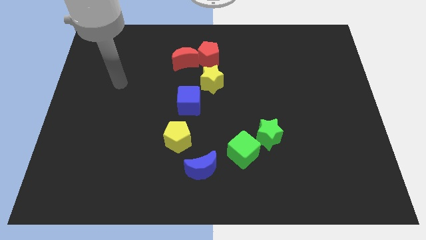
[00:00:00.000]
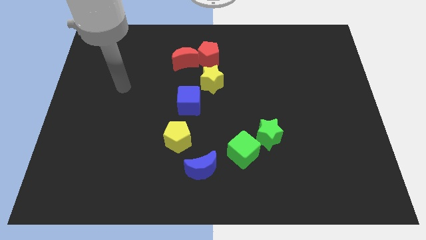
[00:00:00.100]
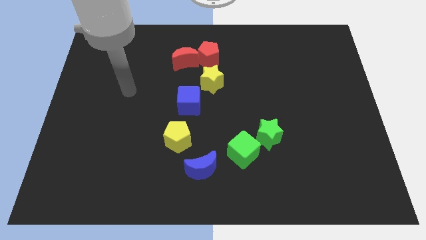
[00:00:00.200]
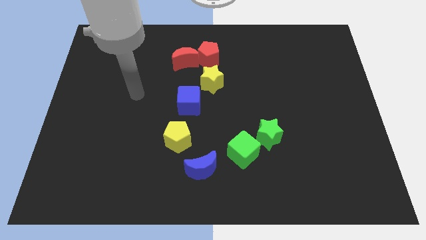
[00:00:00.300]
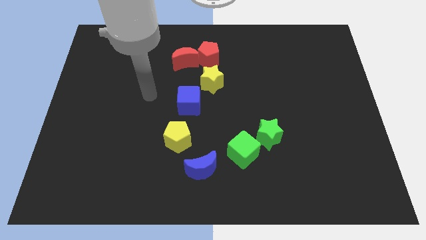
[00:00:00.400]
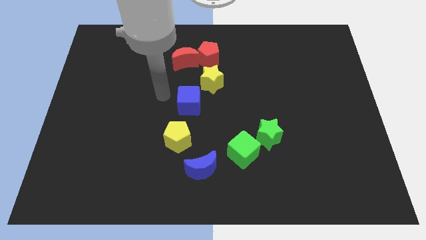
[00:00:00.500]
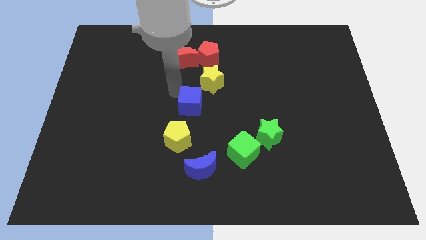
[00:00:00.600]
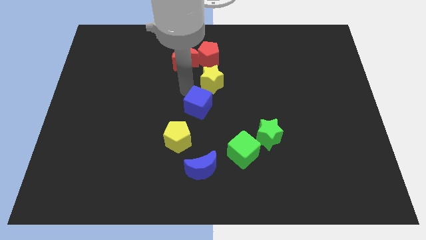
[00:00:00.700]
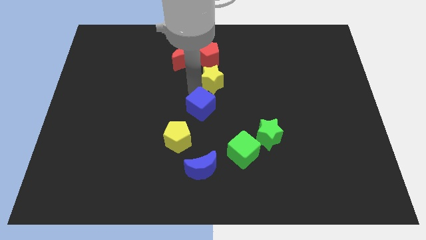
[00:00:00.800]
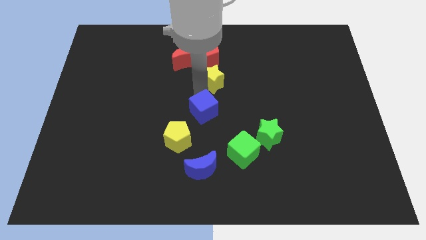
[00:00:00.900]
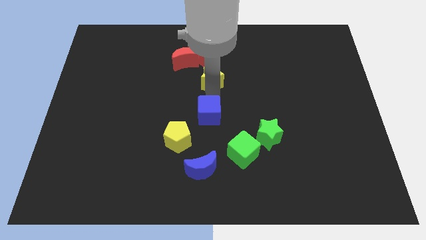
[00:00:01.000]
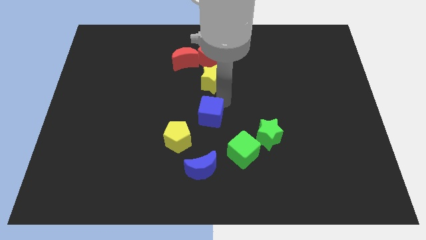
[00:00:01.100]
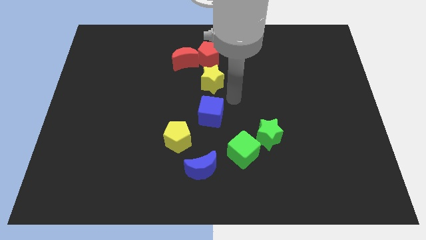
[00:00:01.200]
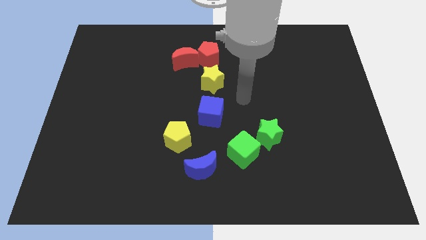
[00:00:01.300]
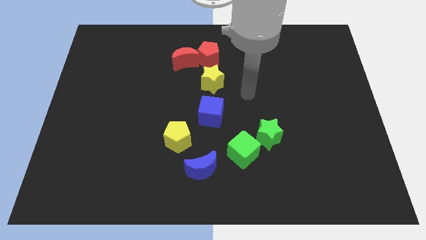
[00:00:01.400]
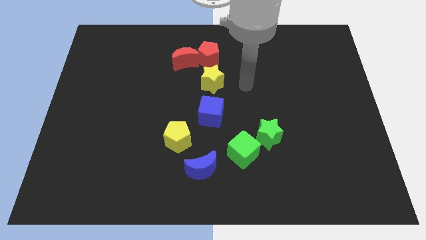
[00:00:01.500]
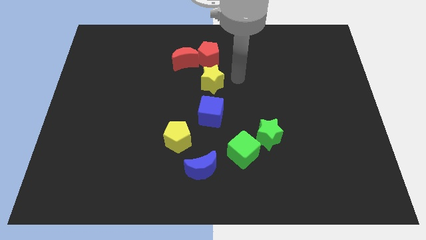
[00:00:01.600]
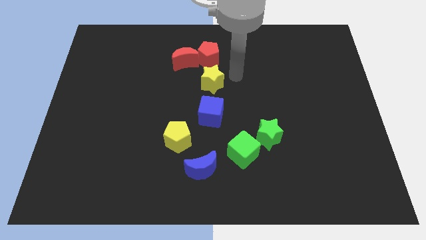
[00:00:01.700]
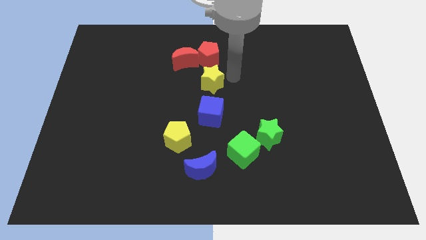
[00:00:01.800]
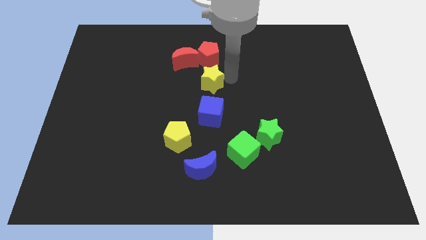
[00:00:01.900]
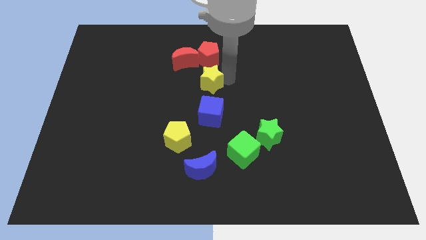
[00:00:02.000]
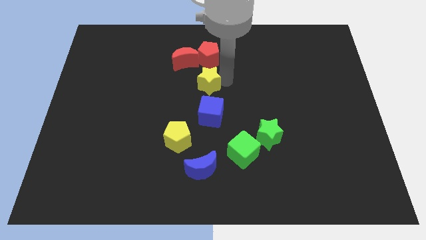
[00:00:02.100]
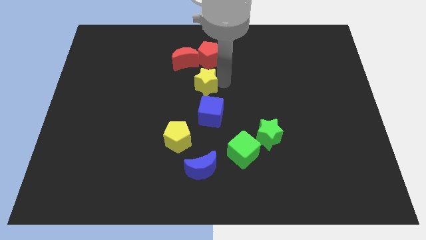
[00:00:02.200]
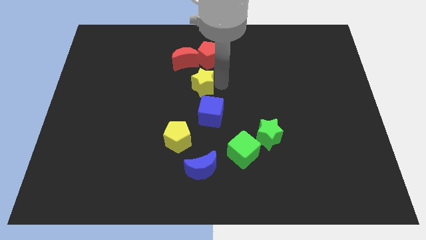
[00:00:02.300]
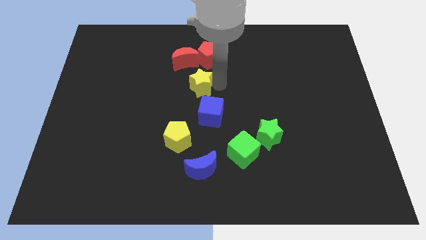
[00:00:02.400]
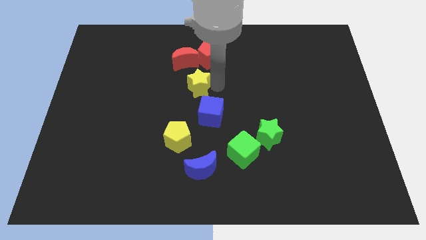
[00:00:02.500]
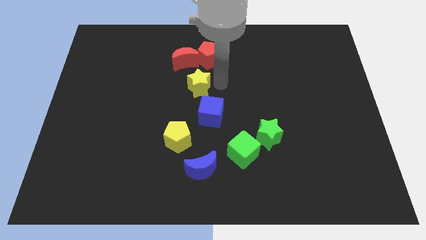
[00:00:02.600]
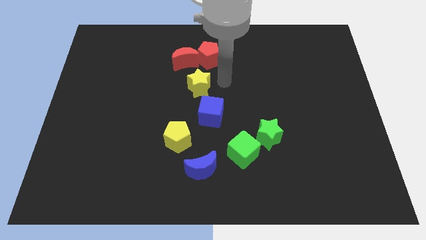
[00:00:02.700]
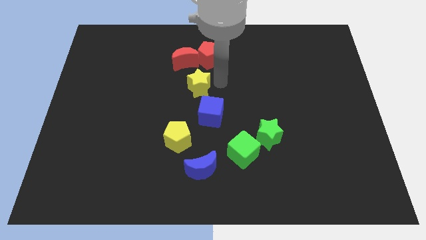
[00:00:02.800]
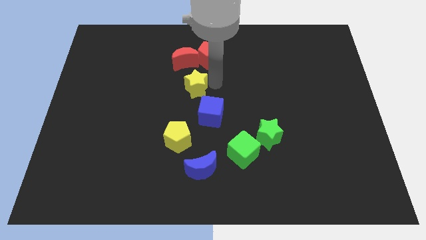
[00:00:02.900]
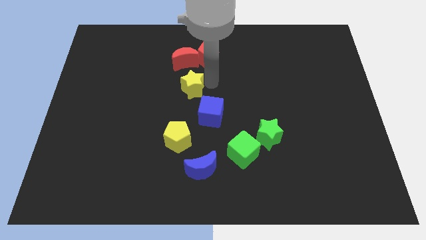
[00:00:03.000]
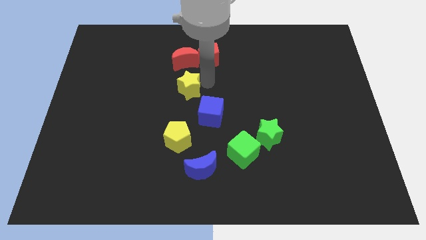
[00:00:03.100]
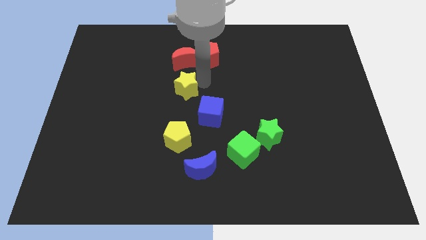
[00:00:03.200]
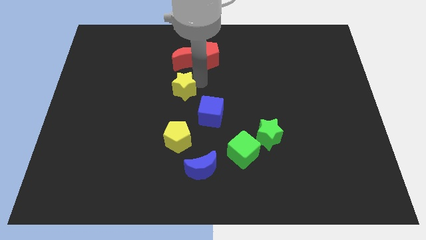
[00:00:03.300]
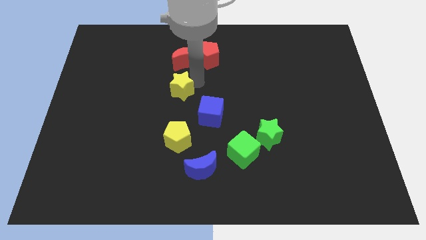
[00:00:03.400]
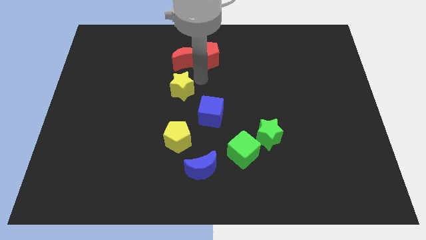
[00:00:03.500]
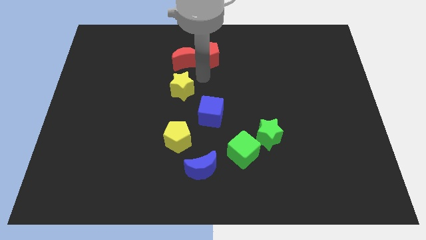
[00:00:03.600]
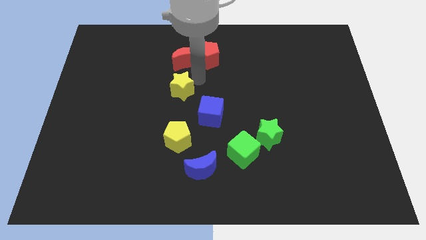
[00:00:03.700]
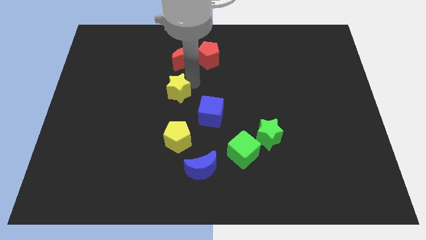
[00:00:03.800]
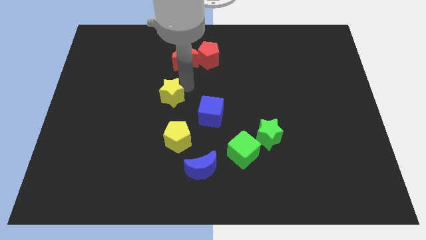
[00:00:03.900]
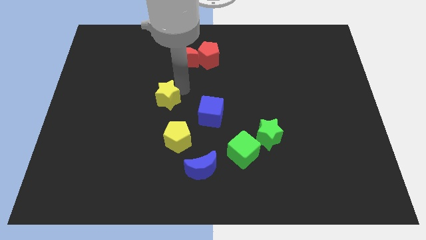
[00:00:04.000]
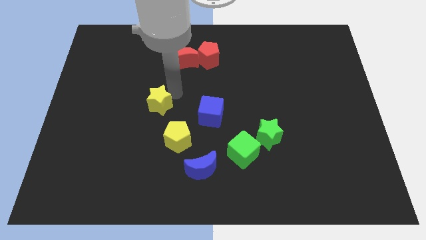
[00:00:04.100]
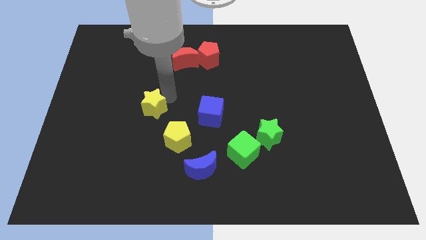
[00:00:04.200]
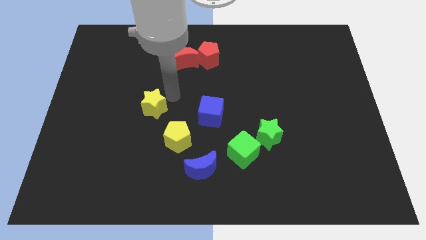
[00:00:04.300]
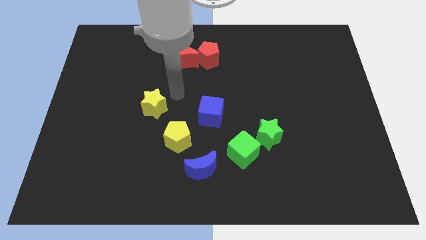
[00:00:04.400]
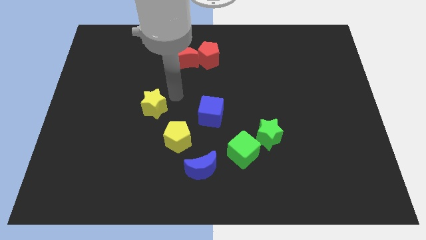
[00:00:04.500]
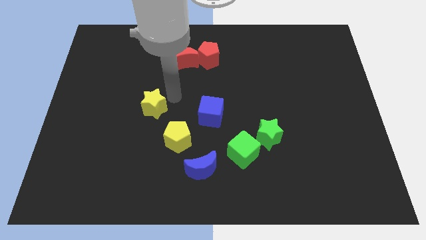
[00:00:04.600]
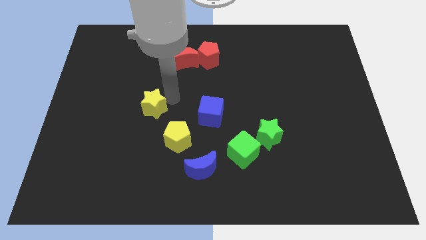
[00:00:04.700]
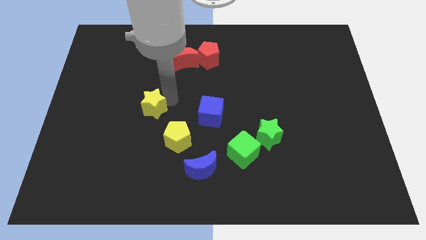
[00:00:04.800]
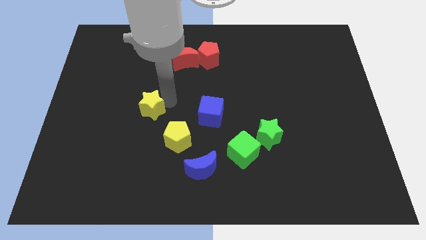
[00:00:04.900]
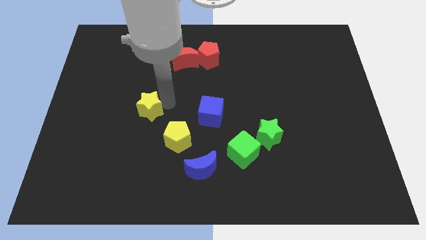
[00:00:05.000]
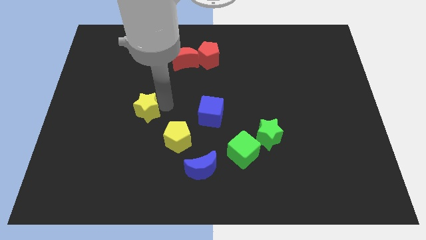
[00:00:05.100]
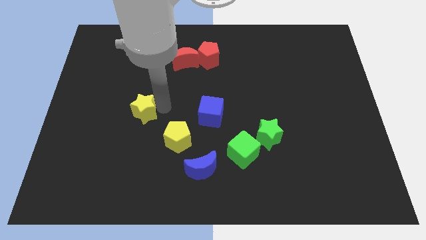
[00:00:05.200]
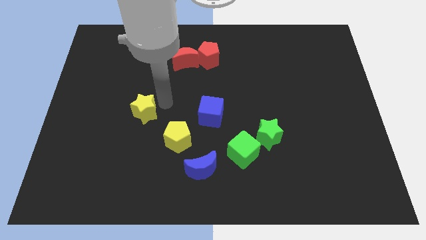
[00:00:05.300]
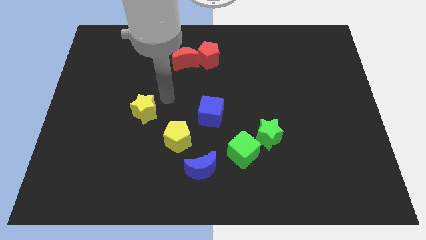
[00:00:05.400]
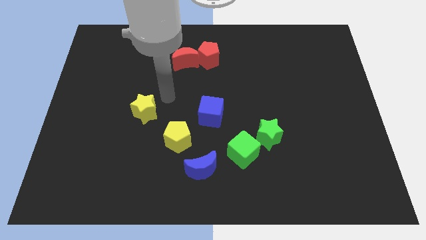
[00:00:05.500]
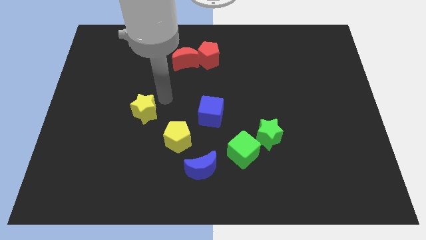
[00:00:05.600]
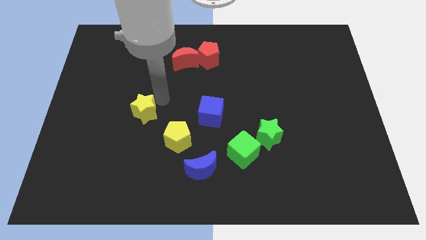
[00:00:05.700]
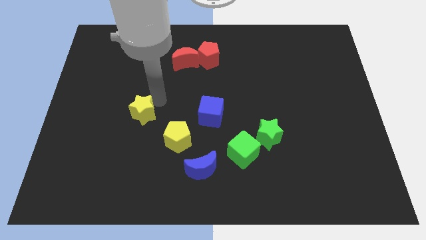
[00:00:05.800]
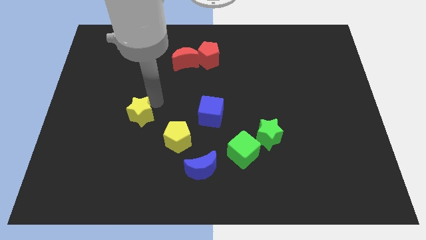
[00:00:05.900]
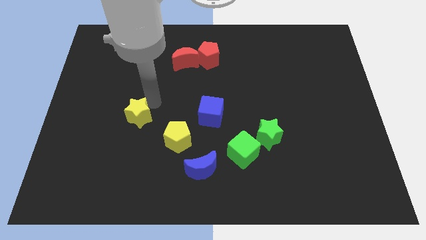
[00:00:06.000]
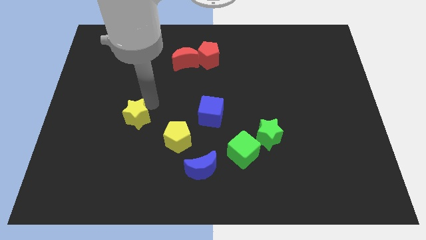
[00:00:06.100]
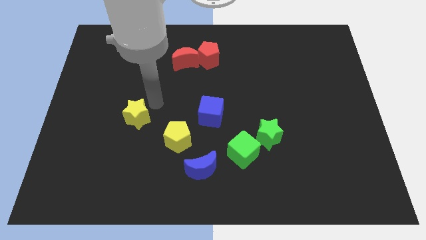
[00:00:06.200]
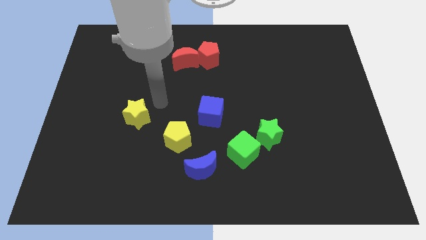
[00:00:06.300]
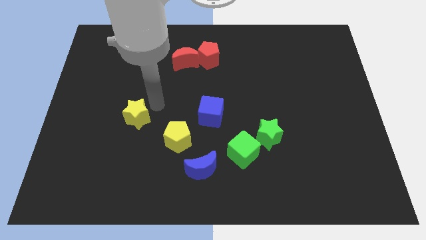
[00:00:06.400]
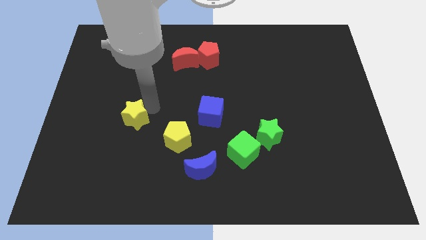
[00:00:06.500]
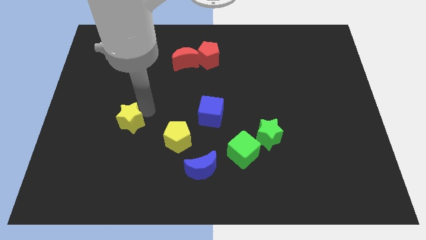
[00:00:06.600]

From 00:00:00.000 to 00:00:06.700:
push the yellow star down and to the left diagonally

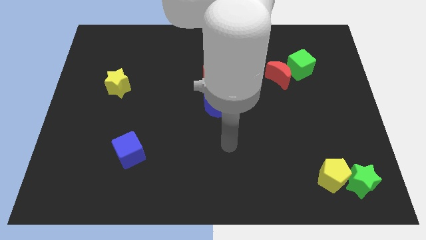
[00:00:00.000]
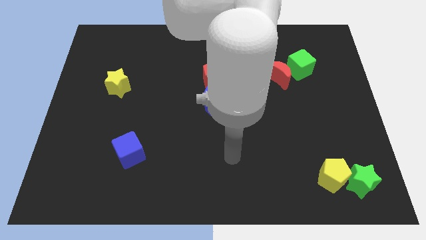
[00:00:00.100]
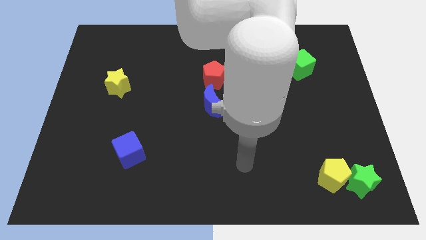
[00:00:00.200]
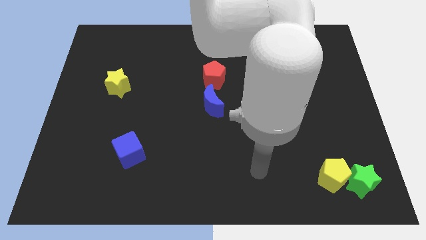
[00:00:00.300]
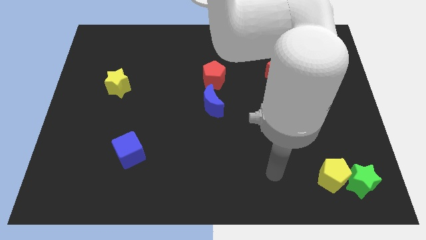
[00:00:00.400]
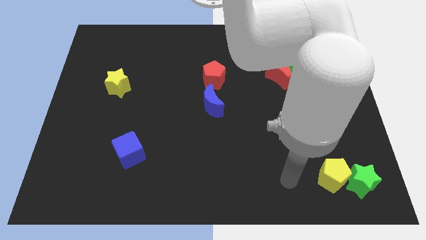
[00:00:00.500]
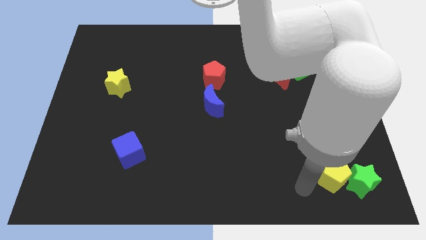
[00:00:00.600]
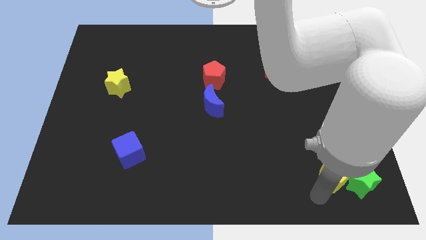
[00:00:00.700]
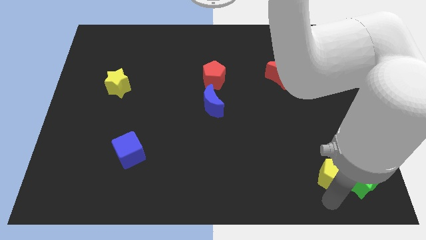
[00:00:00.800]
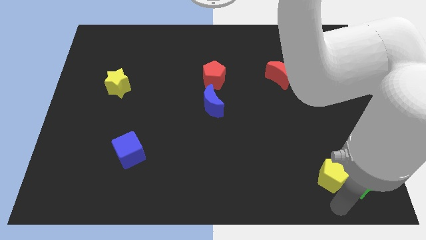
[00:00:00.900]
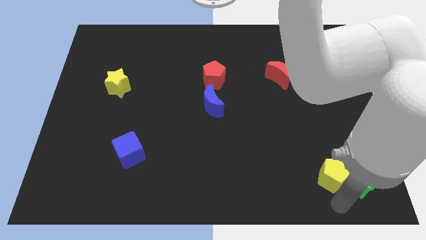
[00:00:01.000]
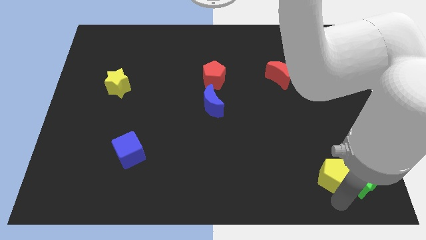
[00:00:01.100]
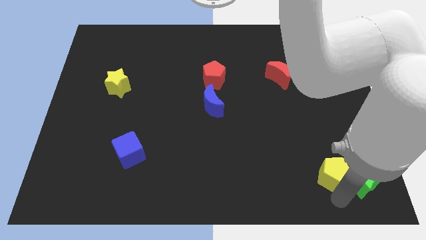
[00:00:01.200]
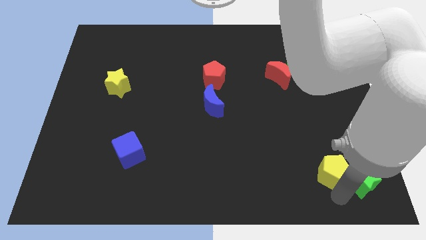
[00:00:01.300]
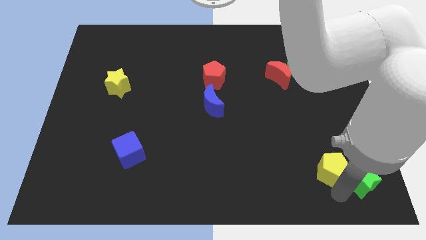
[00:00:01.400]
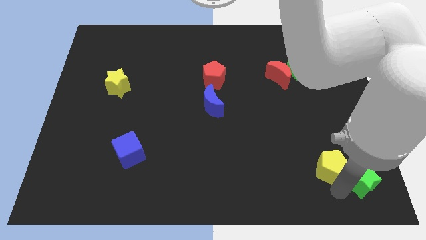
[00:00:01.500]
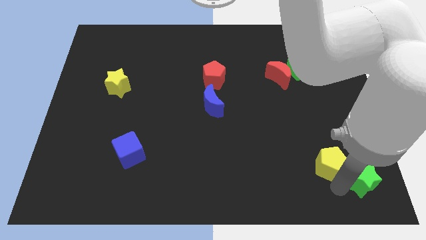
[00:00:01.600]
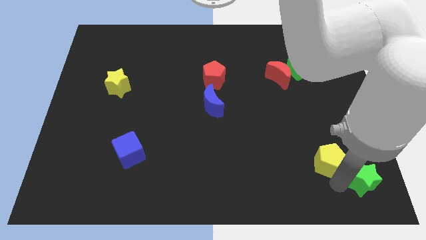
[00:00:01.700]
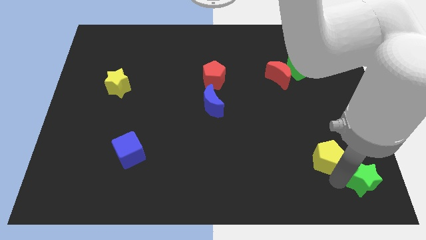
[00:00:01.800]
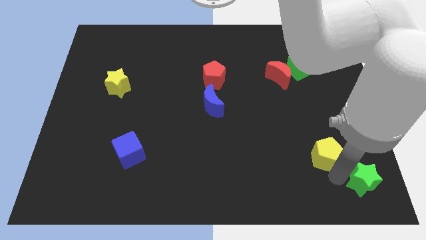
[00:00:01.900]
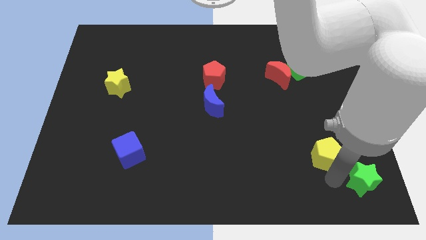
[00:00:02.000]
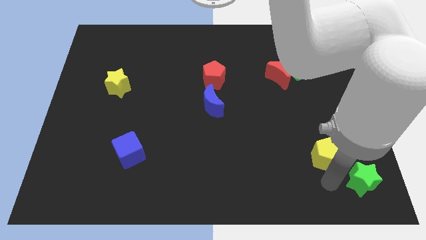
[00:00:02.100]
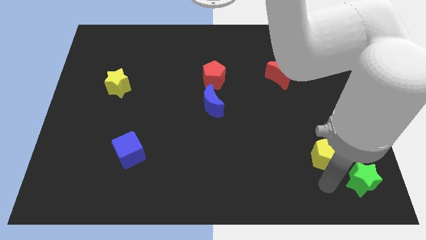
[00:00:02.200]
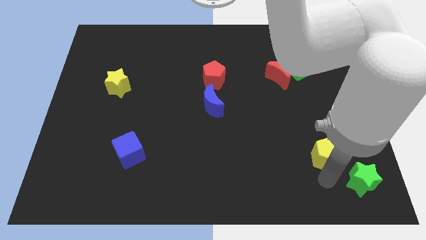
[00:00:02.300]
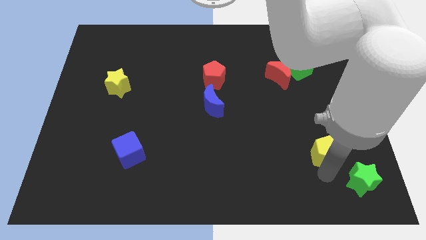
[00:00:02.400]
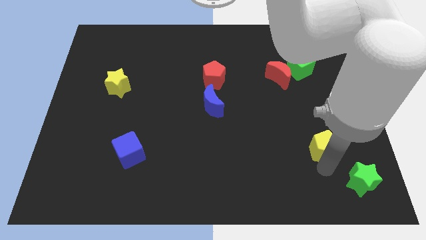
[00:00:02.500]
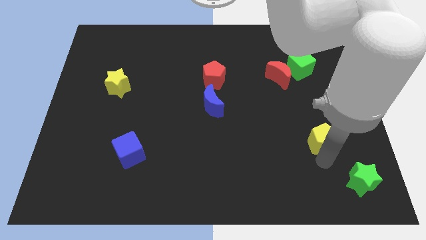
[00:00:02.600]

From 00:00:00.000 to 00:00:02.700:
move the yellow pentagon up a little bit
